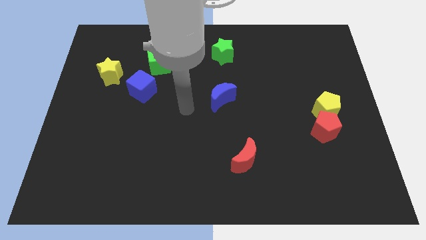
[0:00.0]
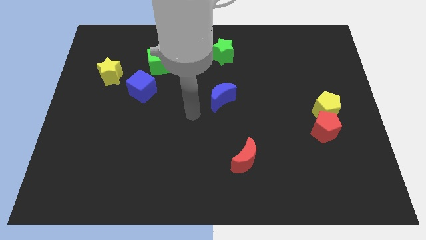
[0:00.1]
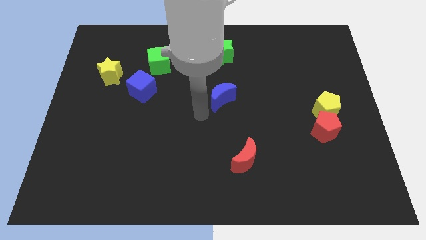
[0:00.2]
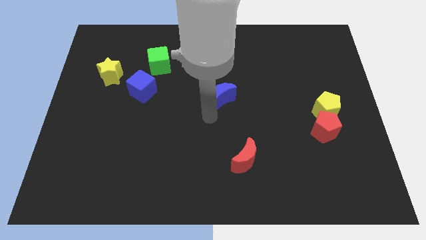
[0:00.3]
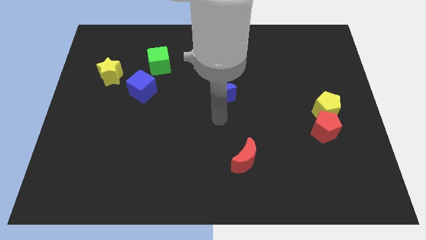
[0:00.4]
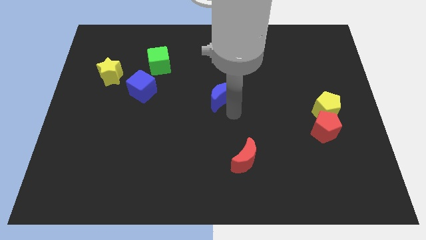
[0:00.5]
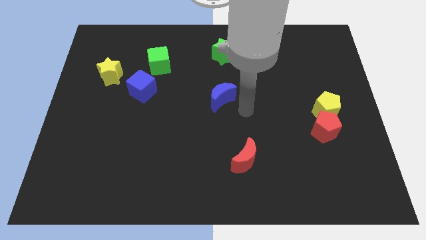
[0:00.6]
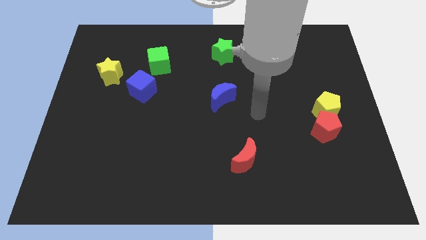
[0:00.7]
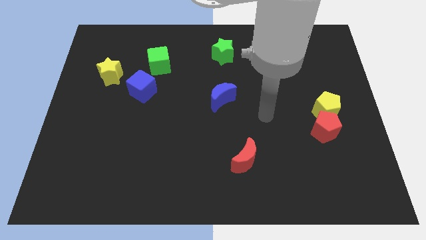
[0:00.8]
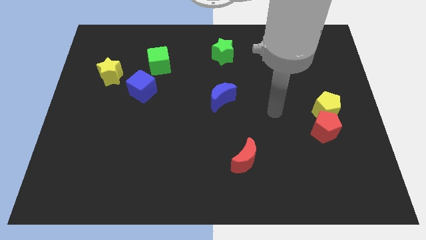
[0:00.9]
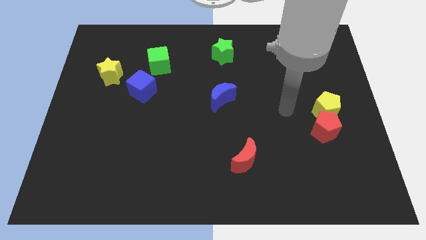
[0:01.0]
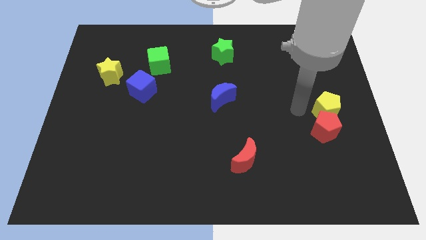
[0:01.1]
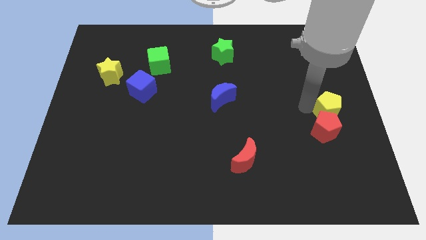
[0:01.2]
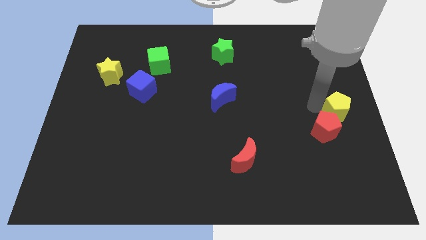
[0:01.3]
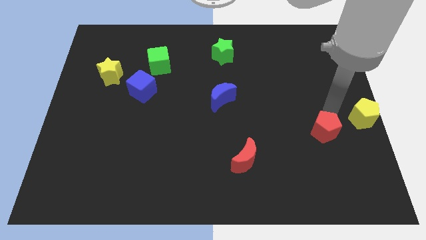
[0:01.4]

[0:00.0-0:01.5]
move the red pentagon away from the yellow pentagon

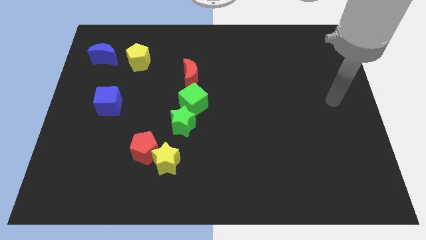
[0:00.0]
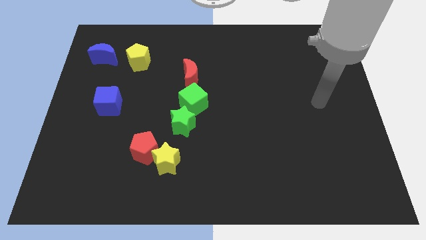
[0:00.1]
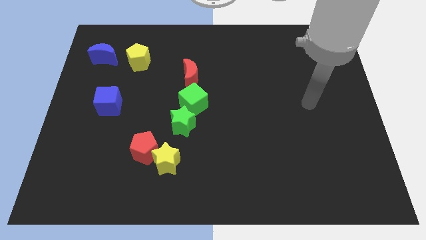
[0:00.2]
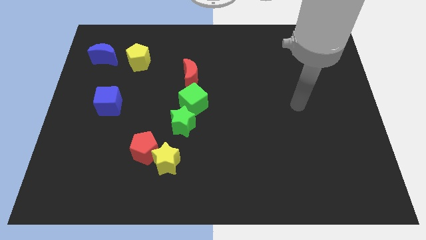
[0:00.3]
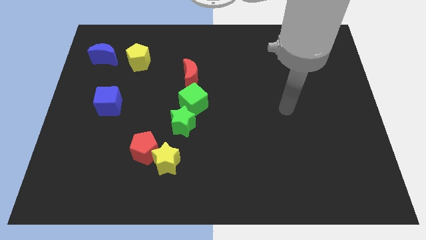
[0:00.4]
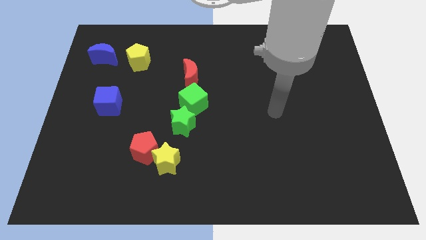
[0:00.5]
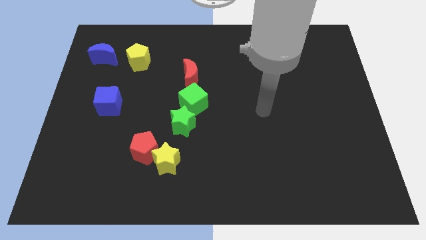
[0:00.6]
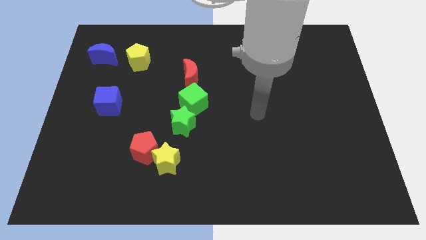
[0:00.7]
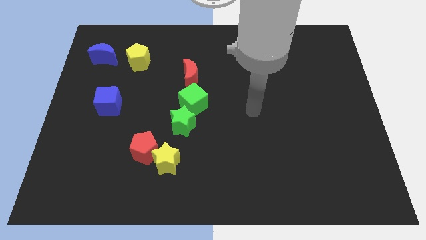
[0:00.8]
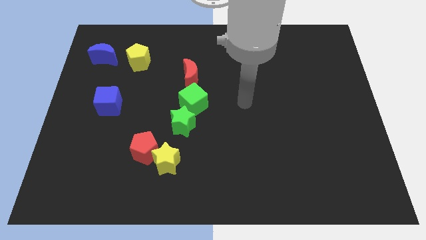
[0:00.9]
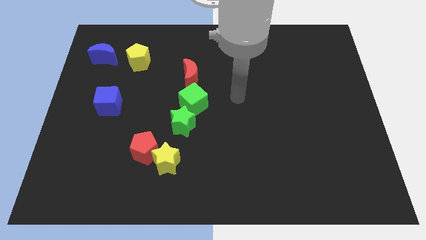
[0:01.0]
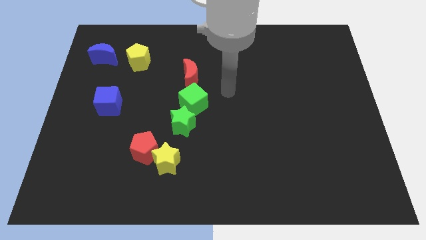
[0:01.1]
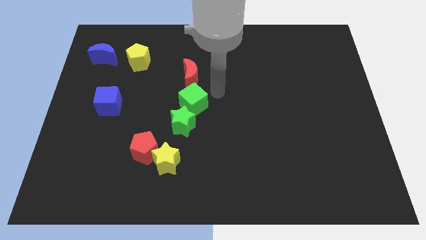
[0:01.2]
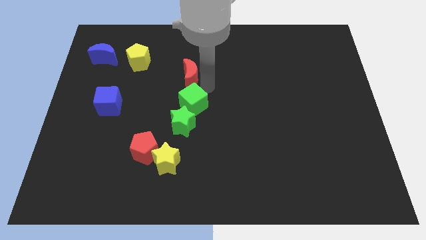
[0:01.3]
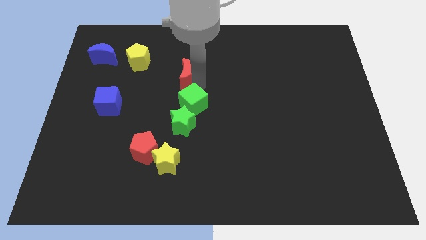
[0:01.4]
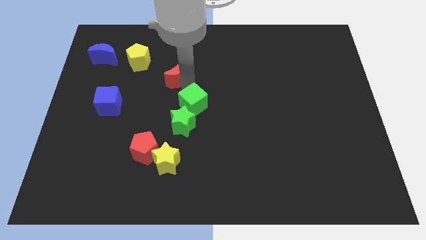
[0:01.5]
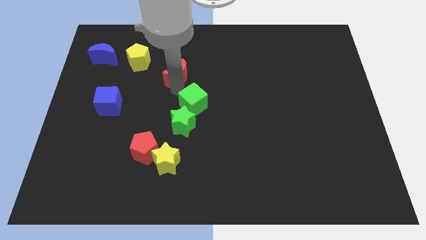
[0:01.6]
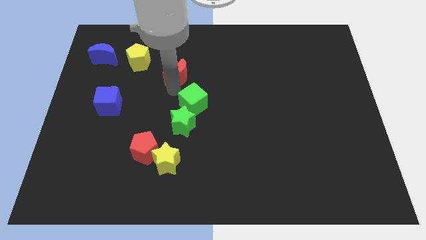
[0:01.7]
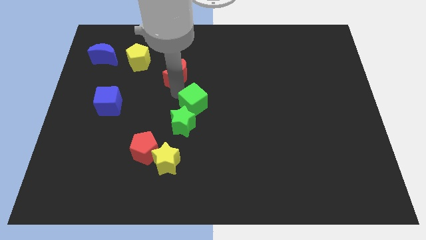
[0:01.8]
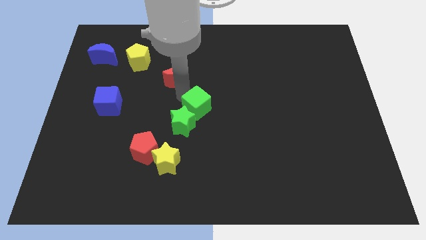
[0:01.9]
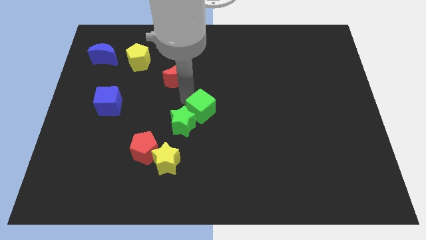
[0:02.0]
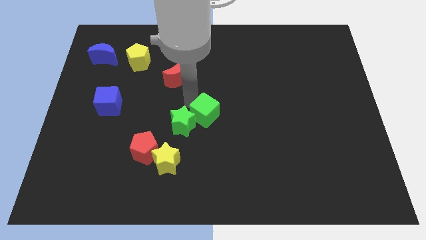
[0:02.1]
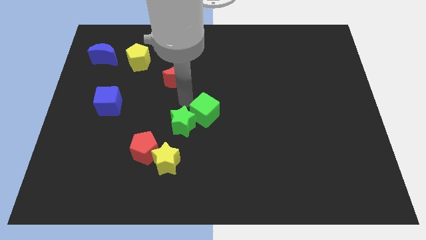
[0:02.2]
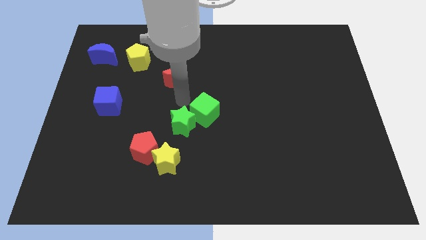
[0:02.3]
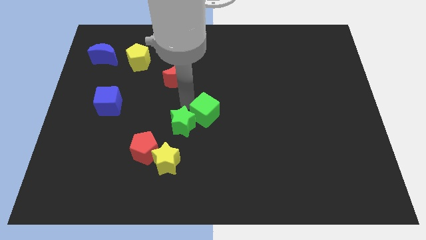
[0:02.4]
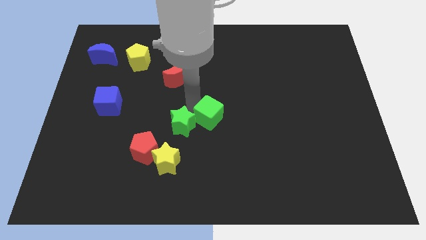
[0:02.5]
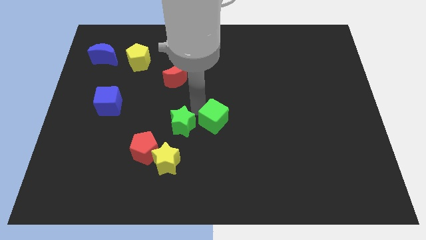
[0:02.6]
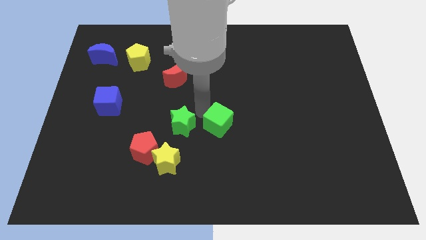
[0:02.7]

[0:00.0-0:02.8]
separate the green cube from the green star and red moon

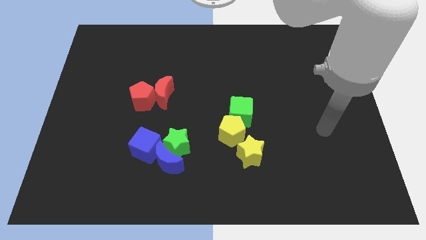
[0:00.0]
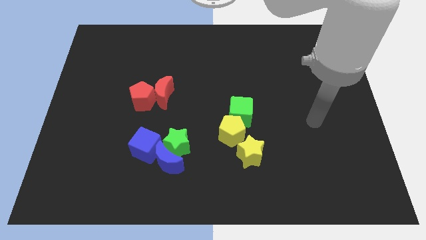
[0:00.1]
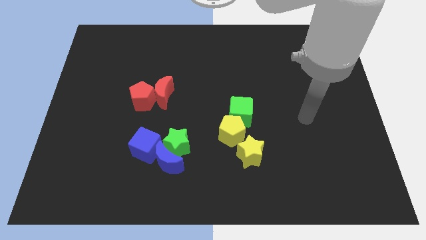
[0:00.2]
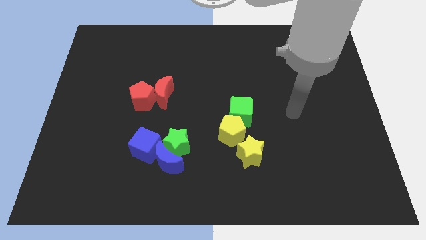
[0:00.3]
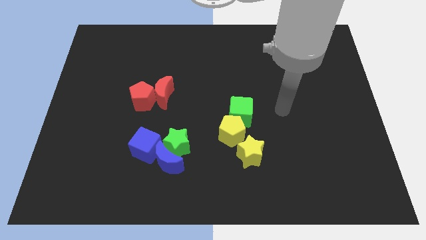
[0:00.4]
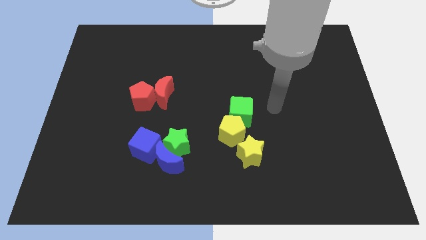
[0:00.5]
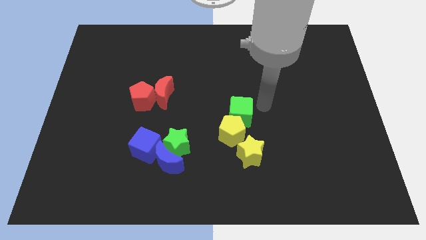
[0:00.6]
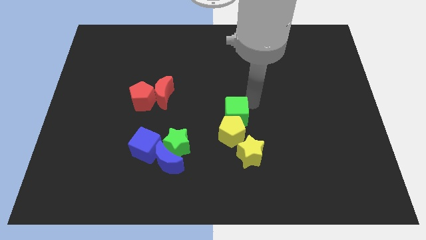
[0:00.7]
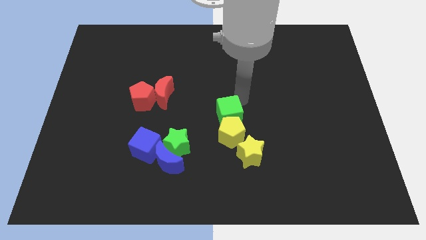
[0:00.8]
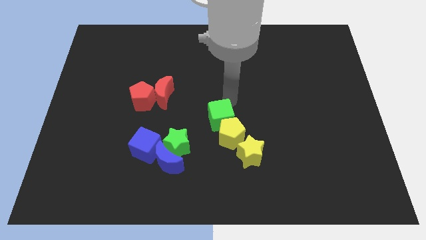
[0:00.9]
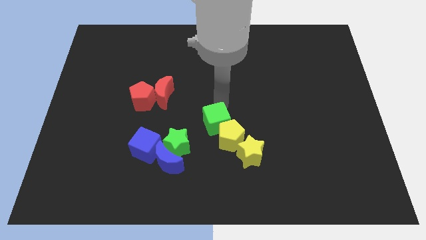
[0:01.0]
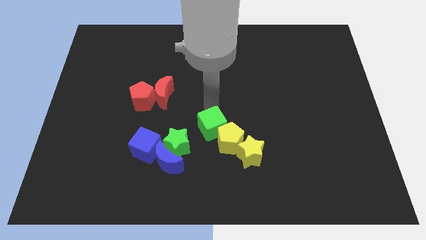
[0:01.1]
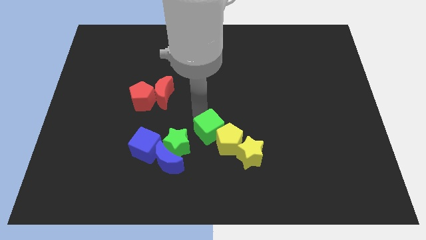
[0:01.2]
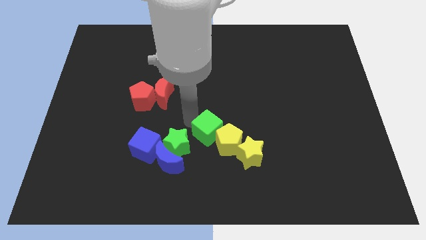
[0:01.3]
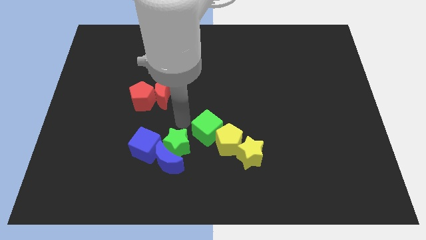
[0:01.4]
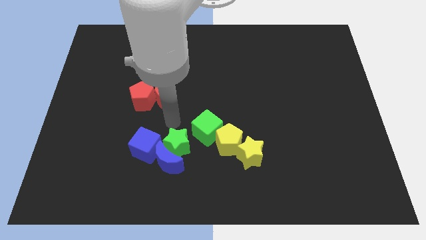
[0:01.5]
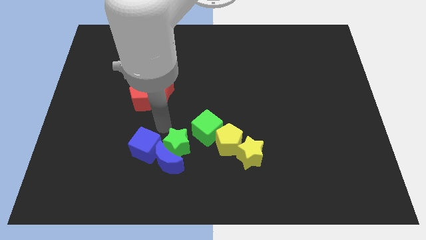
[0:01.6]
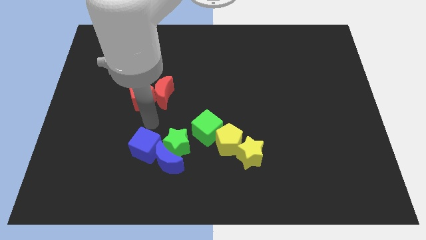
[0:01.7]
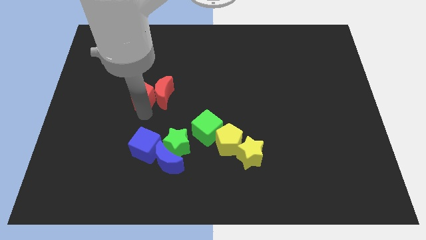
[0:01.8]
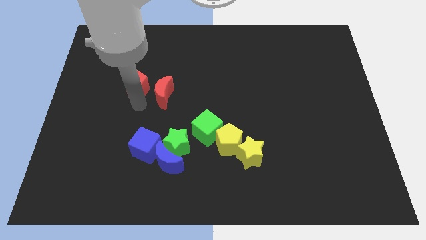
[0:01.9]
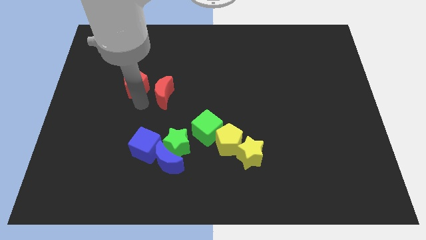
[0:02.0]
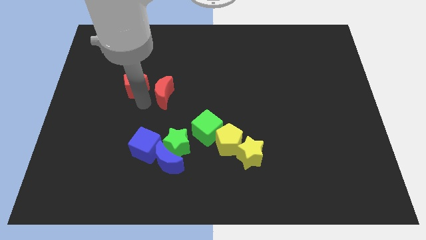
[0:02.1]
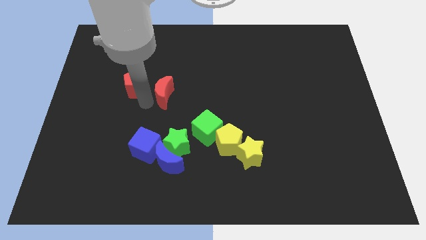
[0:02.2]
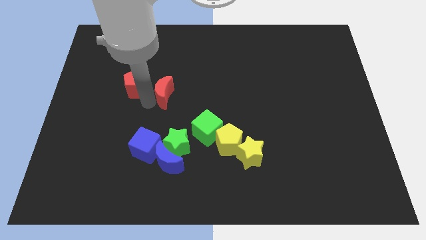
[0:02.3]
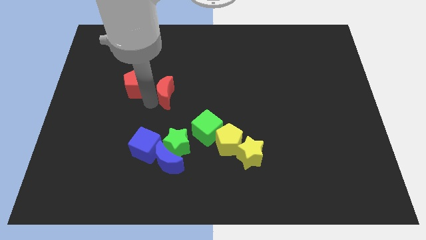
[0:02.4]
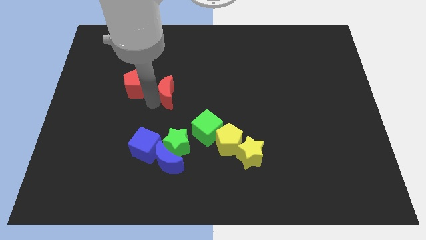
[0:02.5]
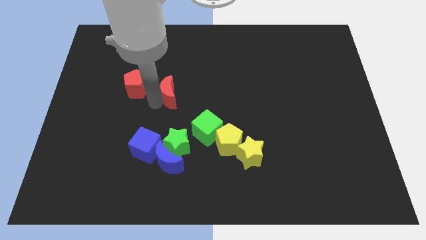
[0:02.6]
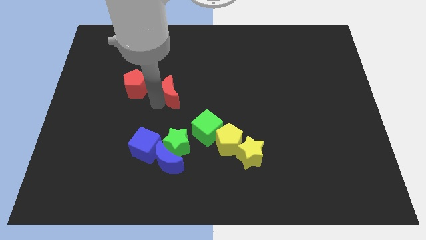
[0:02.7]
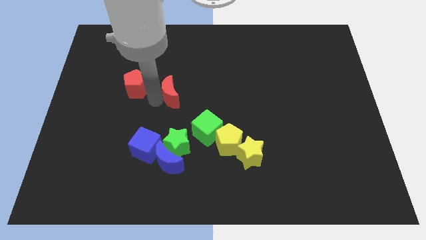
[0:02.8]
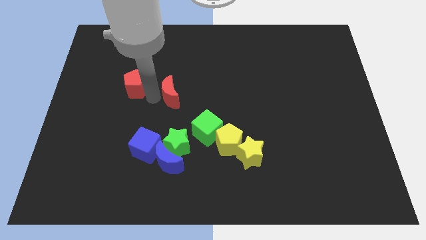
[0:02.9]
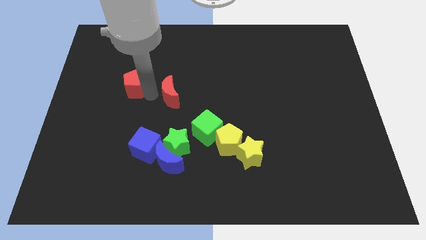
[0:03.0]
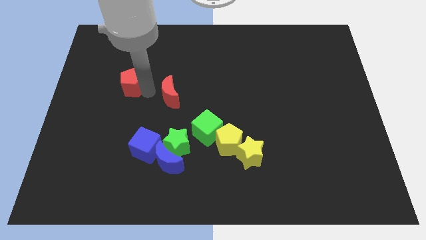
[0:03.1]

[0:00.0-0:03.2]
pull the red moon apart from the red pentagon

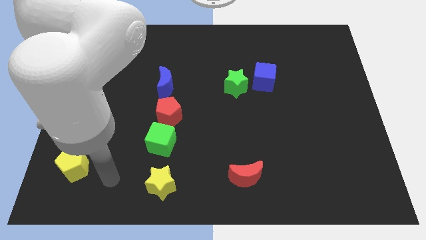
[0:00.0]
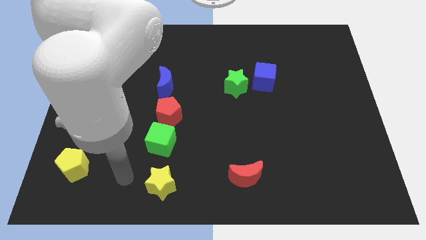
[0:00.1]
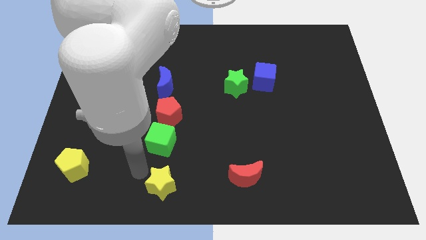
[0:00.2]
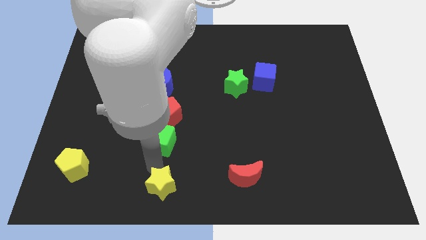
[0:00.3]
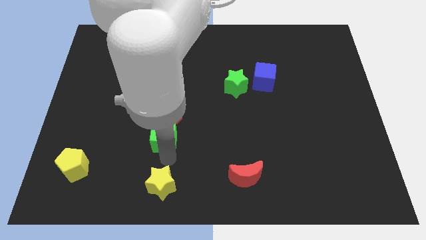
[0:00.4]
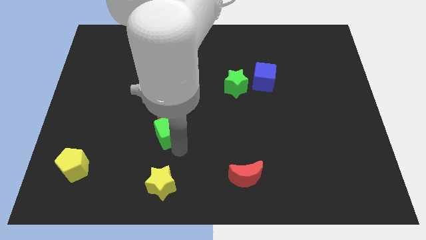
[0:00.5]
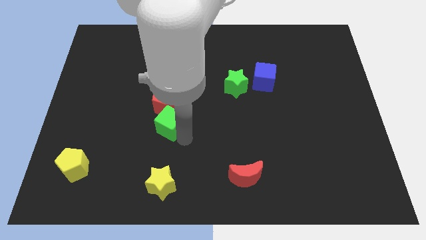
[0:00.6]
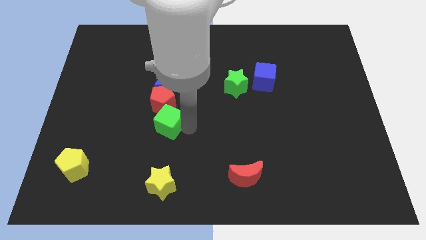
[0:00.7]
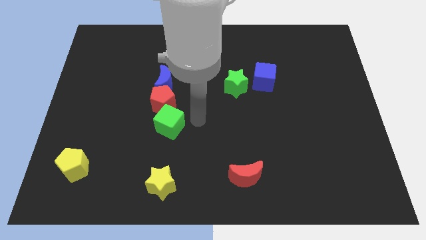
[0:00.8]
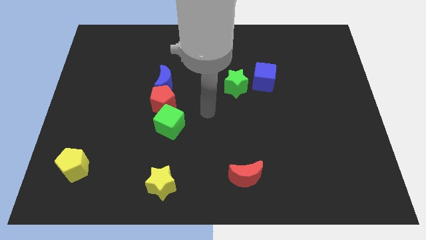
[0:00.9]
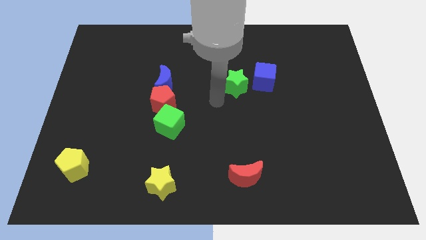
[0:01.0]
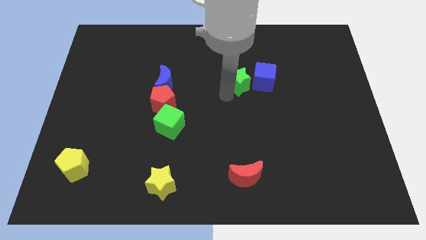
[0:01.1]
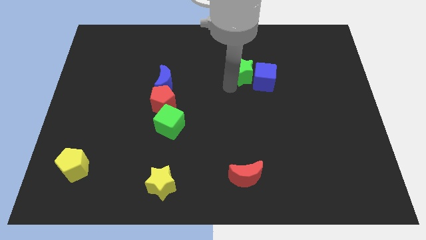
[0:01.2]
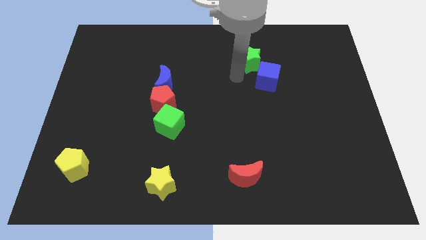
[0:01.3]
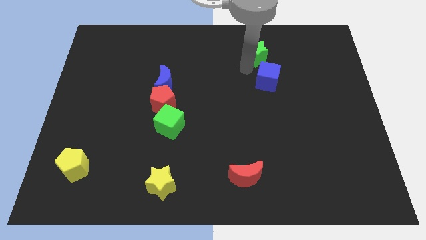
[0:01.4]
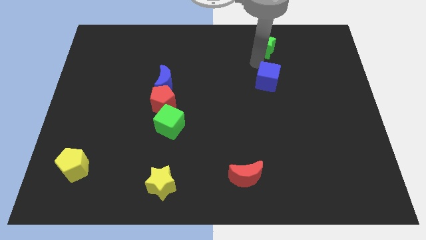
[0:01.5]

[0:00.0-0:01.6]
move the blue cube away from the green star

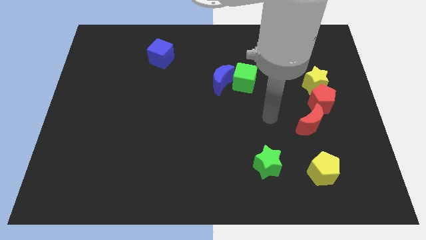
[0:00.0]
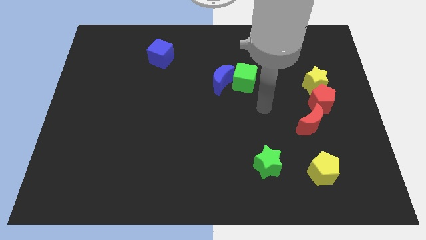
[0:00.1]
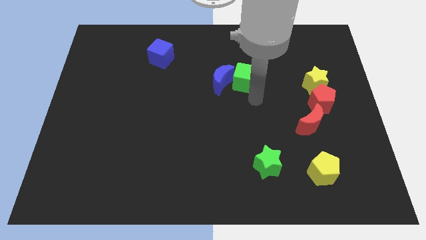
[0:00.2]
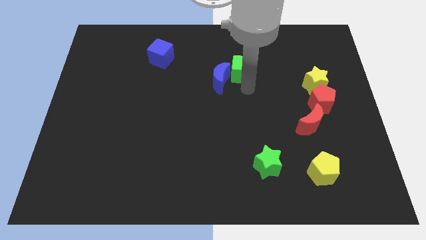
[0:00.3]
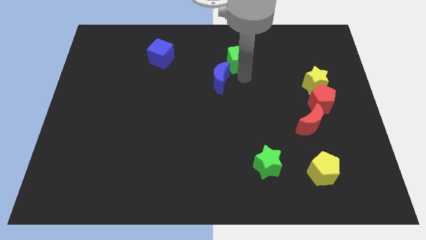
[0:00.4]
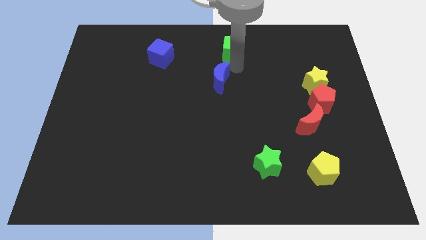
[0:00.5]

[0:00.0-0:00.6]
pull the blue moon apart from the green cube
